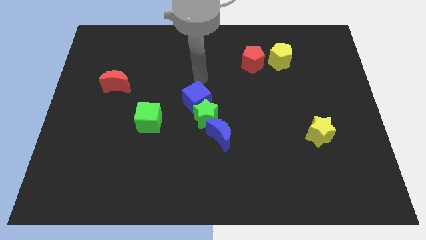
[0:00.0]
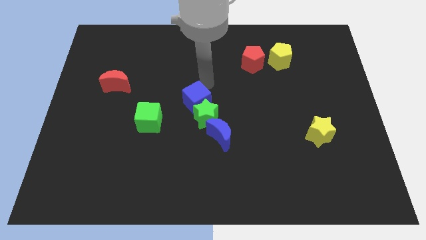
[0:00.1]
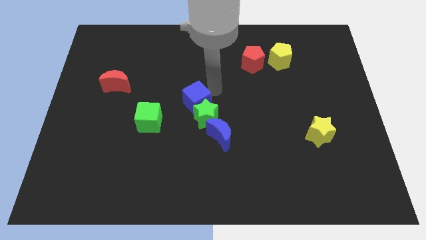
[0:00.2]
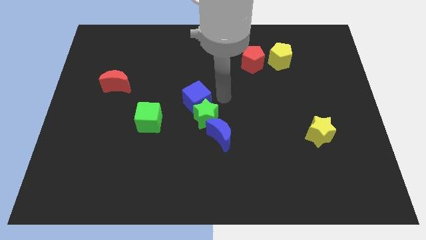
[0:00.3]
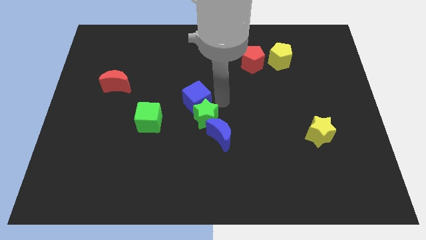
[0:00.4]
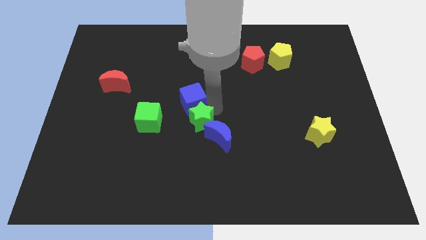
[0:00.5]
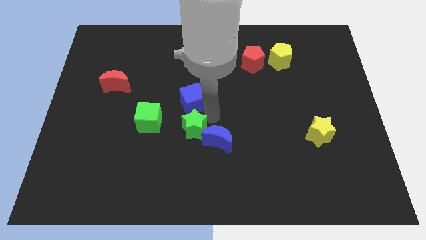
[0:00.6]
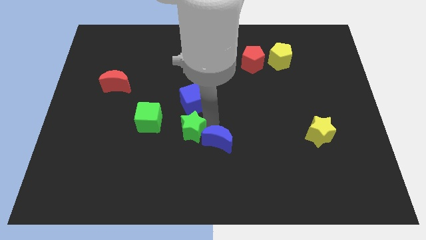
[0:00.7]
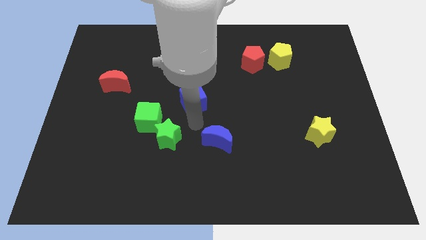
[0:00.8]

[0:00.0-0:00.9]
separate the blue cube from the green star

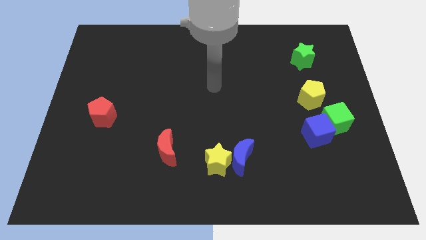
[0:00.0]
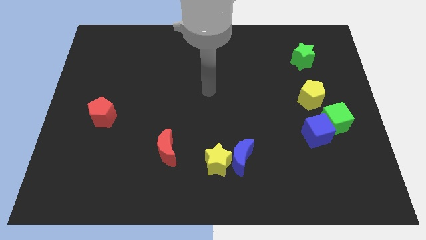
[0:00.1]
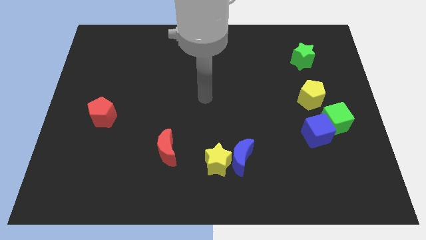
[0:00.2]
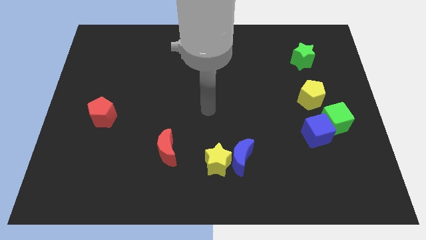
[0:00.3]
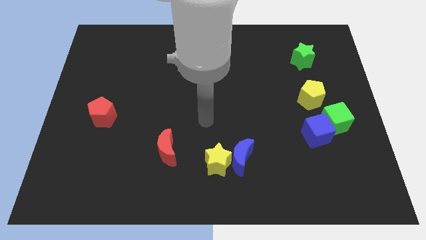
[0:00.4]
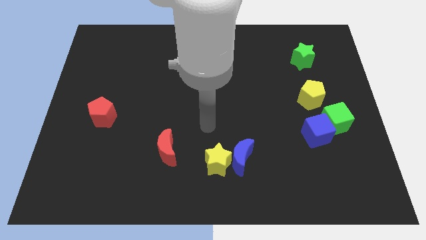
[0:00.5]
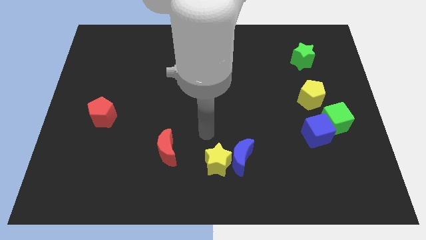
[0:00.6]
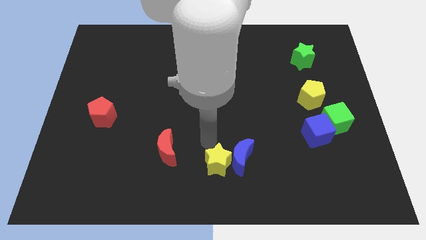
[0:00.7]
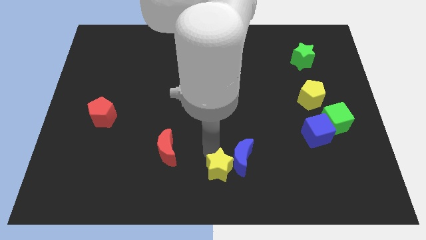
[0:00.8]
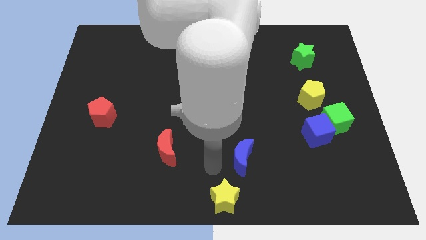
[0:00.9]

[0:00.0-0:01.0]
move the blue moon away from the yellow star

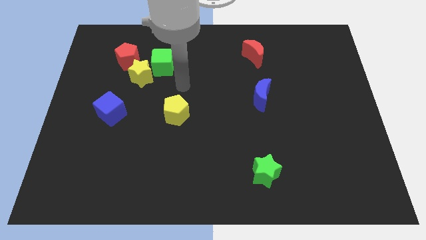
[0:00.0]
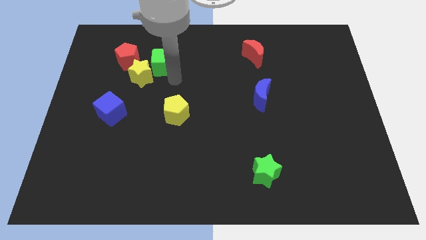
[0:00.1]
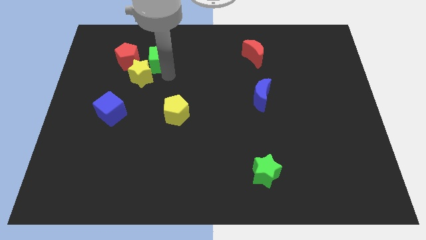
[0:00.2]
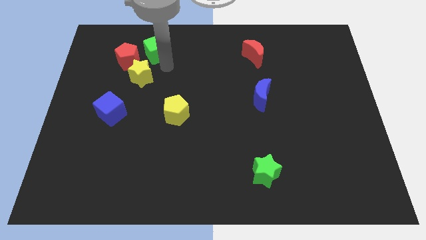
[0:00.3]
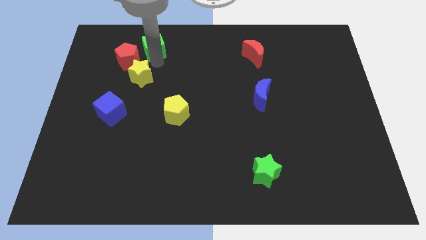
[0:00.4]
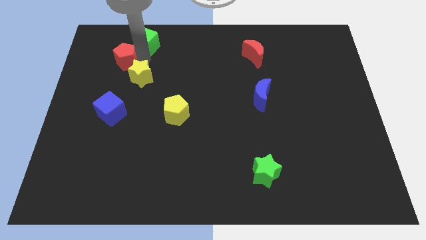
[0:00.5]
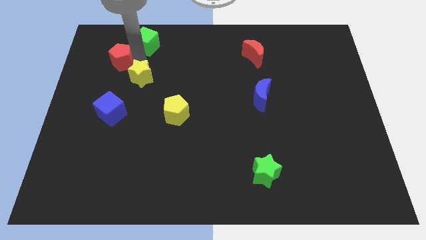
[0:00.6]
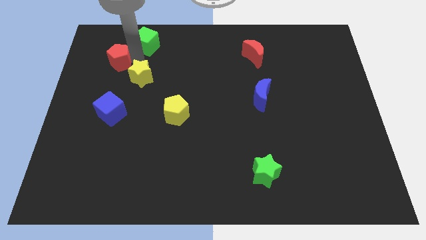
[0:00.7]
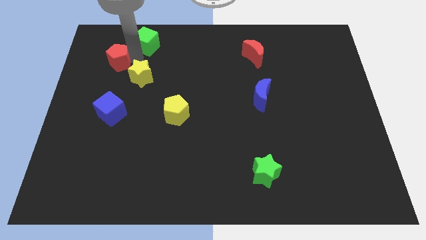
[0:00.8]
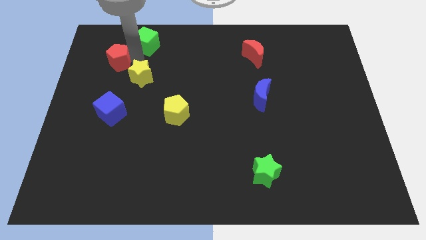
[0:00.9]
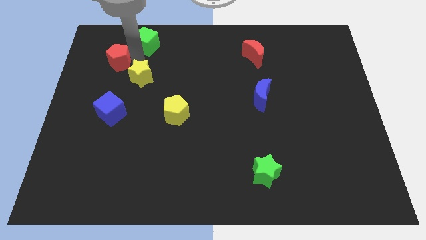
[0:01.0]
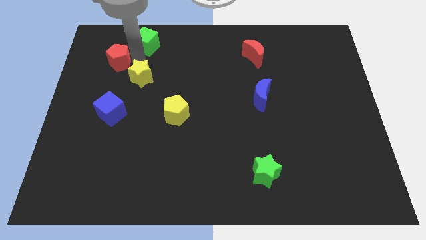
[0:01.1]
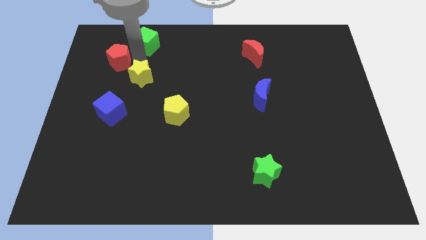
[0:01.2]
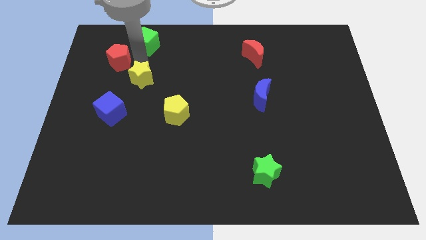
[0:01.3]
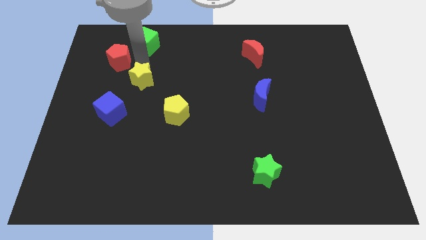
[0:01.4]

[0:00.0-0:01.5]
pull the yellow star apart from the green cube and red pentagon

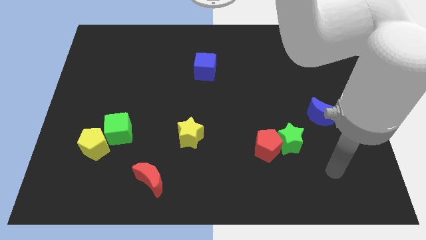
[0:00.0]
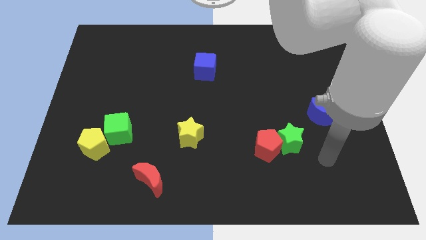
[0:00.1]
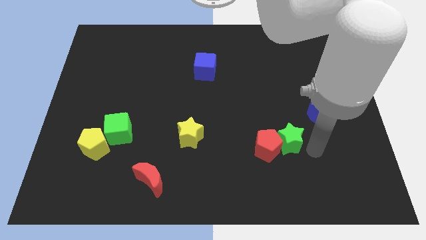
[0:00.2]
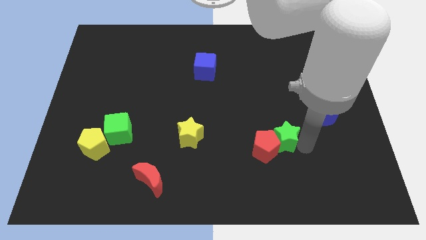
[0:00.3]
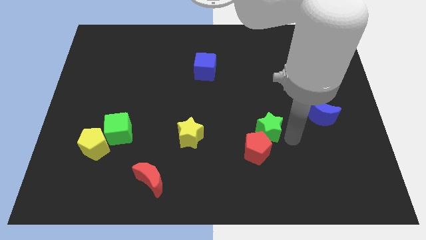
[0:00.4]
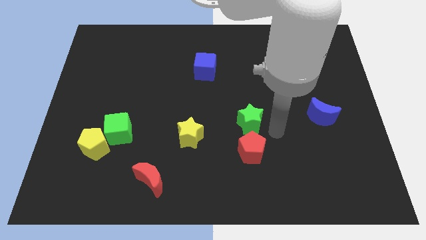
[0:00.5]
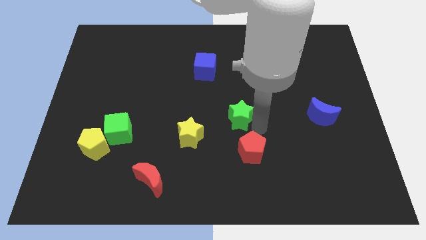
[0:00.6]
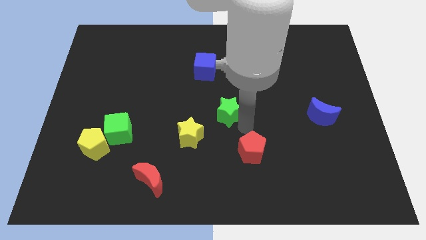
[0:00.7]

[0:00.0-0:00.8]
pull the red pentagon apart from the green star

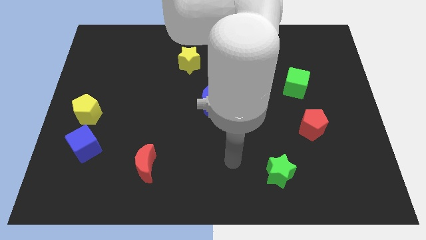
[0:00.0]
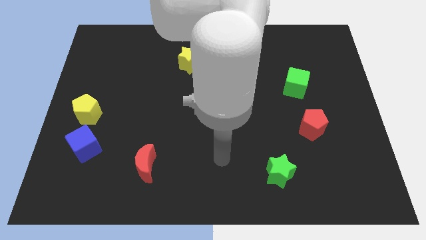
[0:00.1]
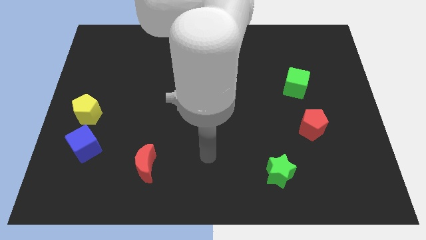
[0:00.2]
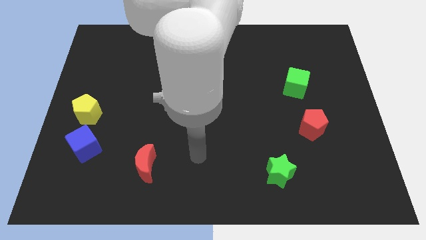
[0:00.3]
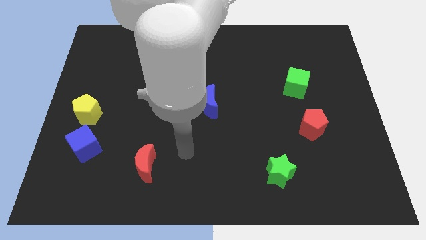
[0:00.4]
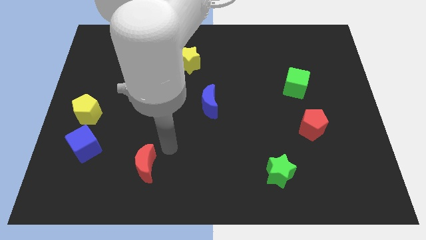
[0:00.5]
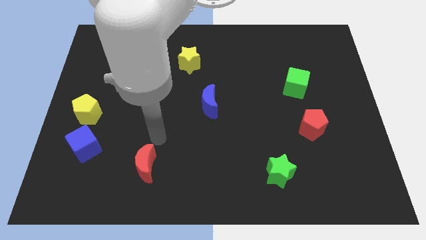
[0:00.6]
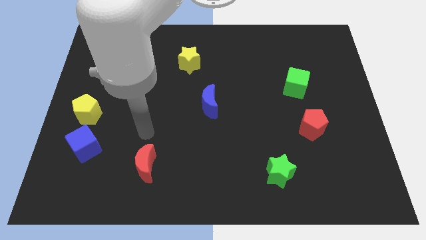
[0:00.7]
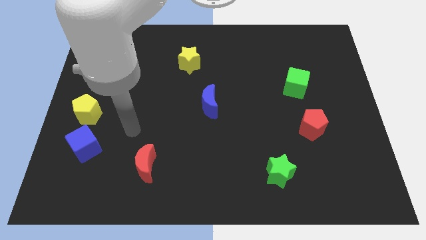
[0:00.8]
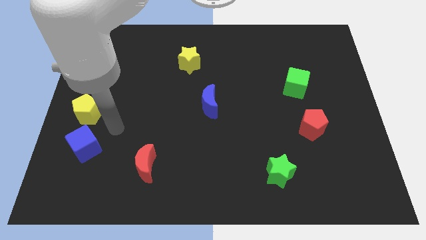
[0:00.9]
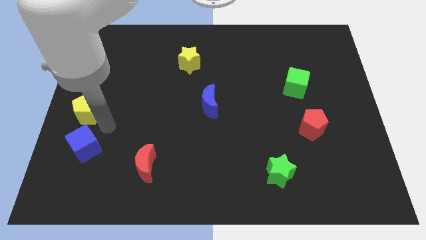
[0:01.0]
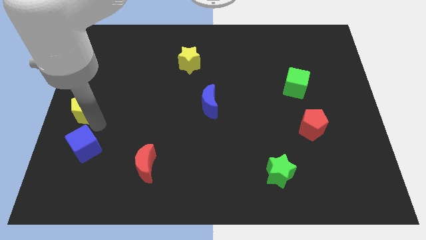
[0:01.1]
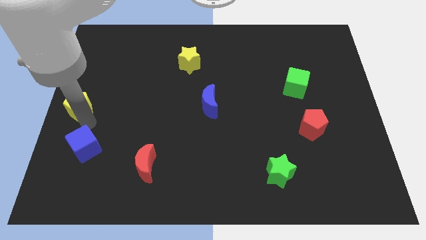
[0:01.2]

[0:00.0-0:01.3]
separate the blue cube from the yellow pentagon

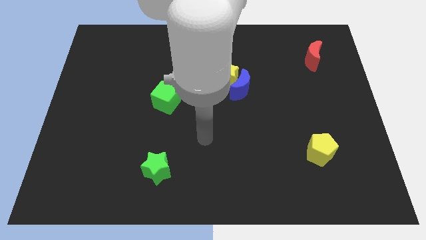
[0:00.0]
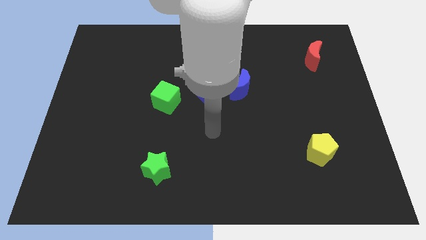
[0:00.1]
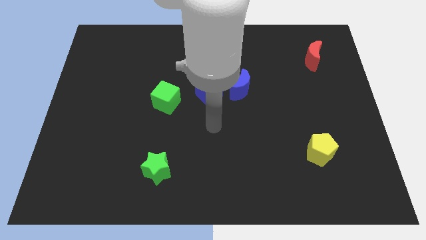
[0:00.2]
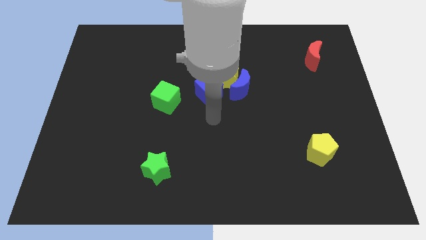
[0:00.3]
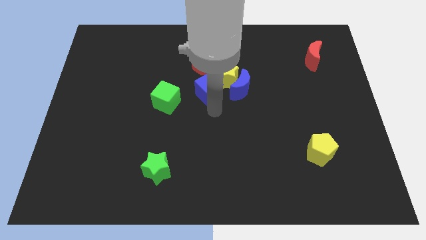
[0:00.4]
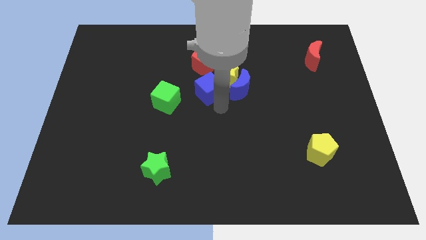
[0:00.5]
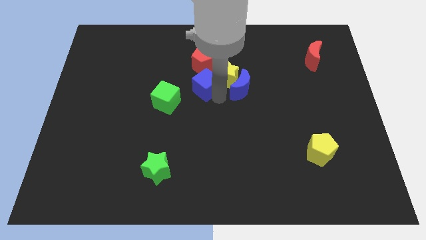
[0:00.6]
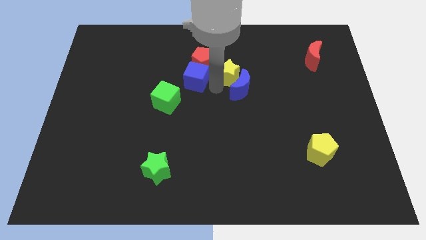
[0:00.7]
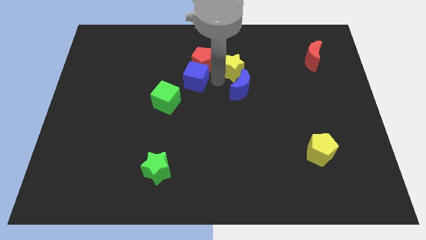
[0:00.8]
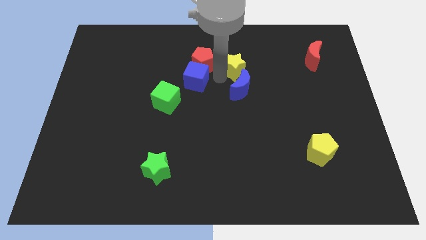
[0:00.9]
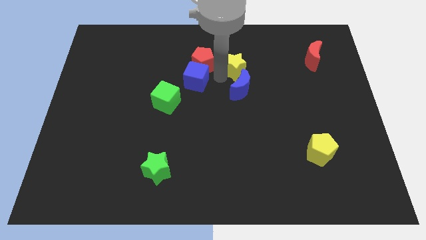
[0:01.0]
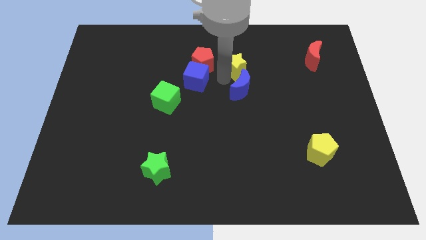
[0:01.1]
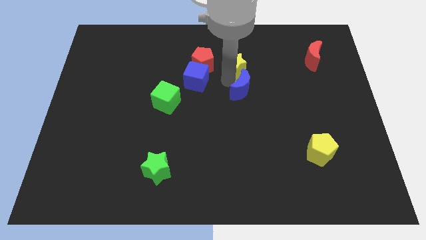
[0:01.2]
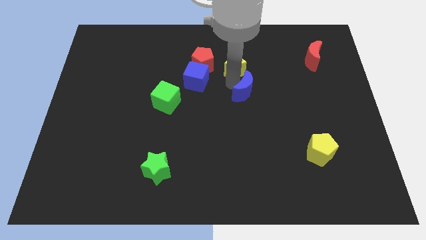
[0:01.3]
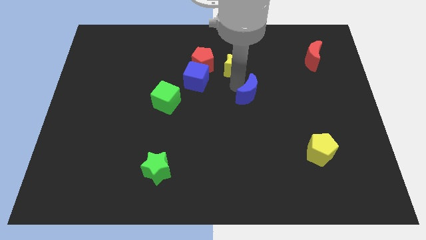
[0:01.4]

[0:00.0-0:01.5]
pull the blue moon apart from the yellow star and blue cube

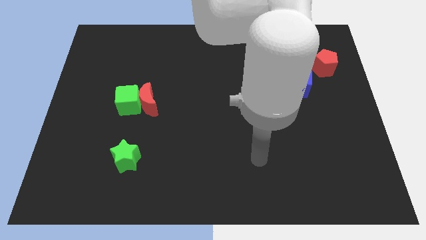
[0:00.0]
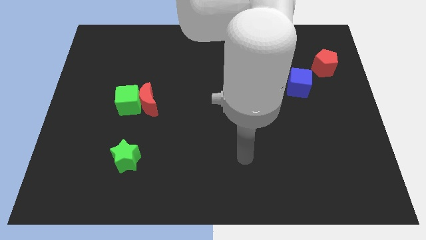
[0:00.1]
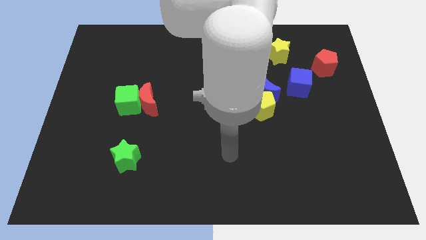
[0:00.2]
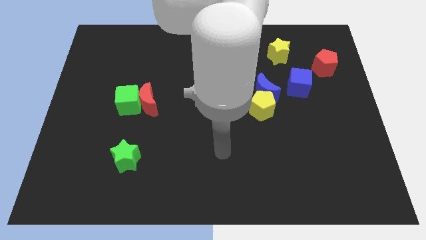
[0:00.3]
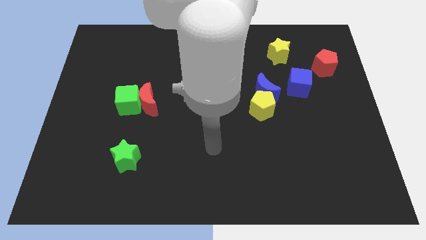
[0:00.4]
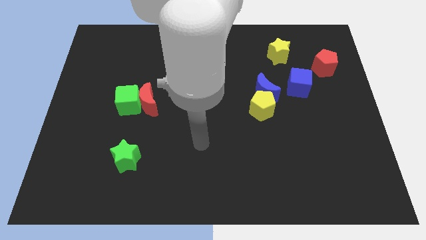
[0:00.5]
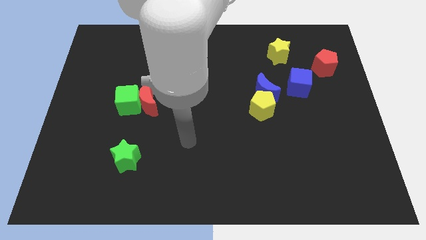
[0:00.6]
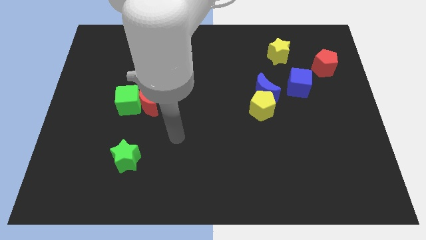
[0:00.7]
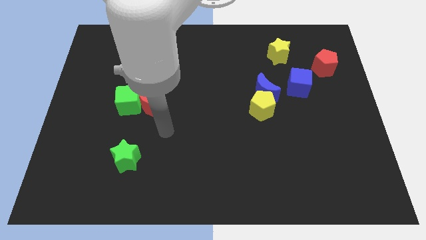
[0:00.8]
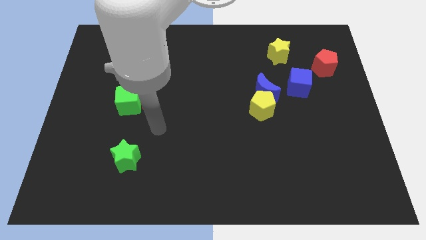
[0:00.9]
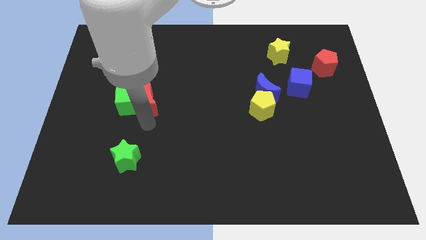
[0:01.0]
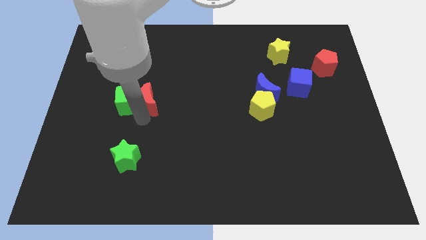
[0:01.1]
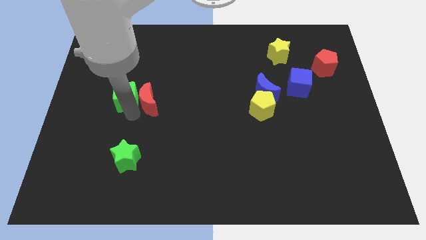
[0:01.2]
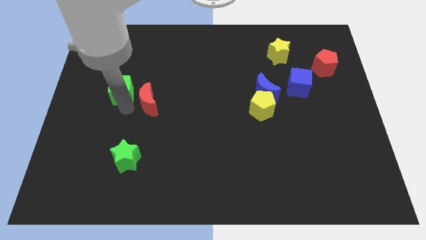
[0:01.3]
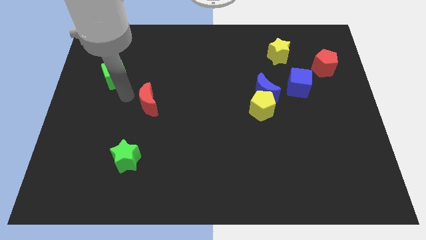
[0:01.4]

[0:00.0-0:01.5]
pull the red moon apart from the green cube

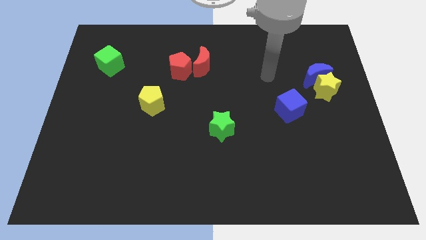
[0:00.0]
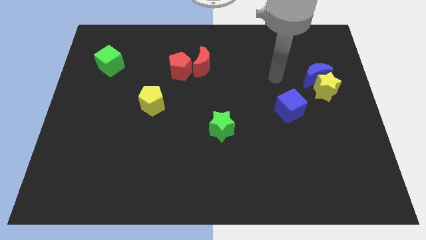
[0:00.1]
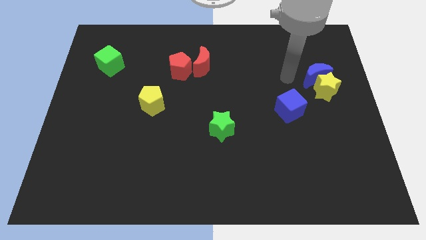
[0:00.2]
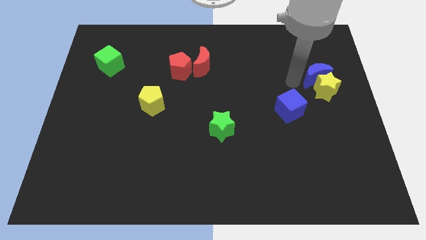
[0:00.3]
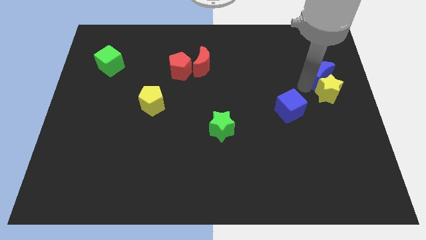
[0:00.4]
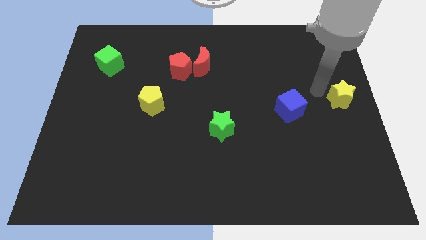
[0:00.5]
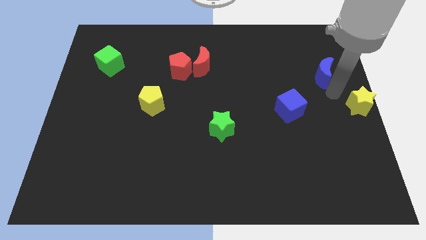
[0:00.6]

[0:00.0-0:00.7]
pull the blue moon apart from the yellow star

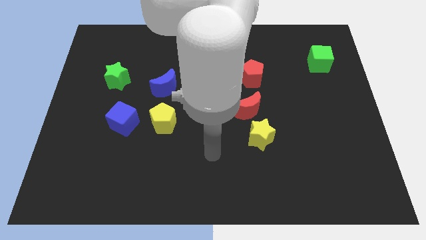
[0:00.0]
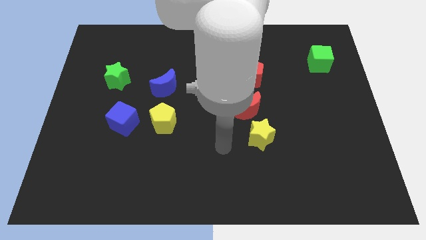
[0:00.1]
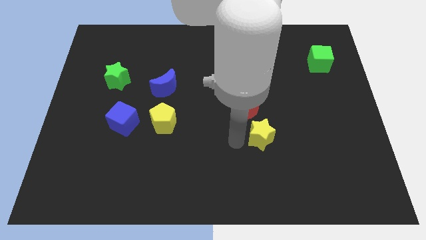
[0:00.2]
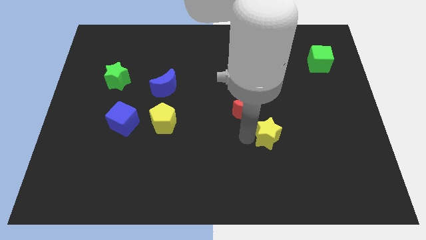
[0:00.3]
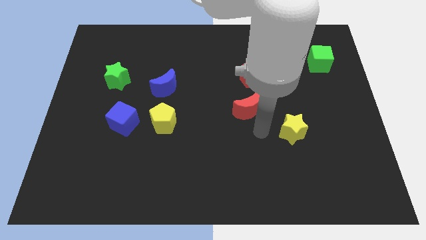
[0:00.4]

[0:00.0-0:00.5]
separate the red moon from the yellow star
